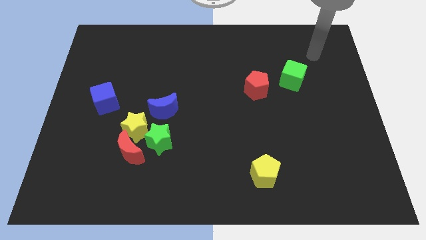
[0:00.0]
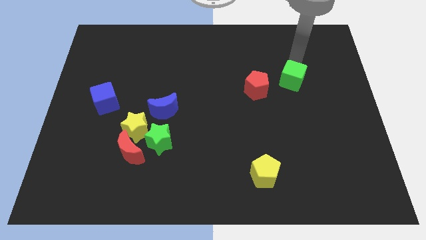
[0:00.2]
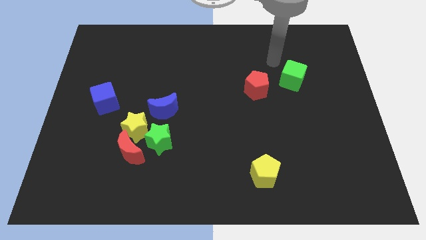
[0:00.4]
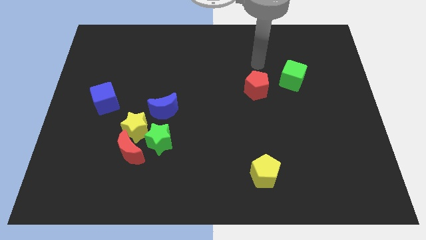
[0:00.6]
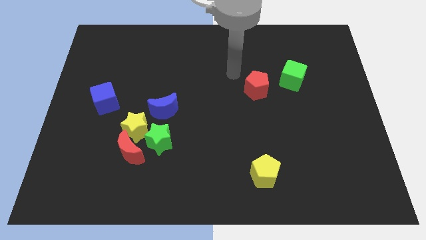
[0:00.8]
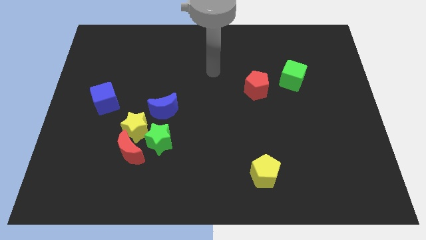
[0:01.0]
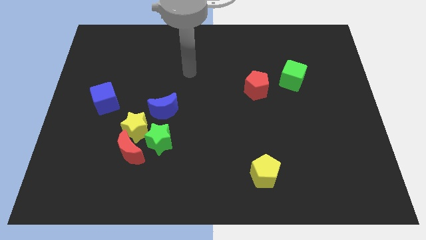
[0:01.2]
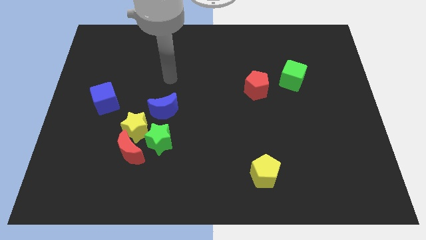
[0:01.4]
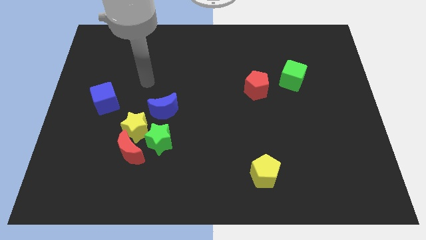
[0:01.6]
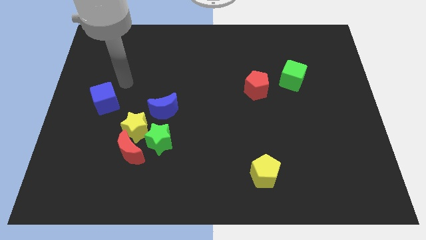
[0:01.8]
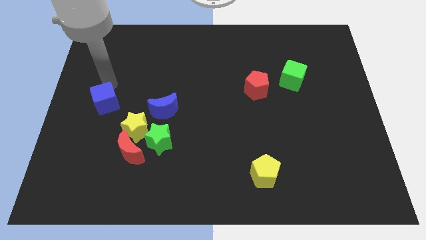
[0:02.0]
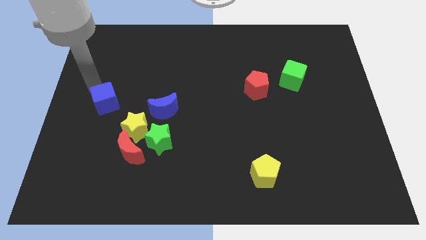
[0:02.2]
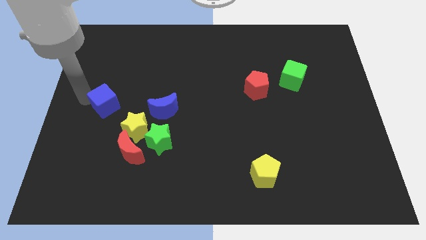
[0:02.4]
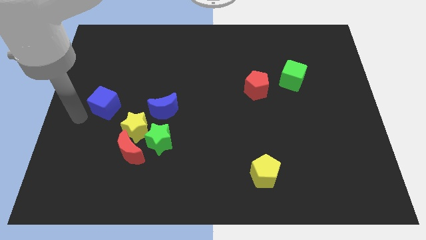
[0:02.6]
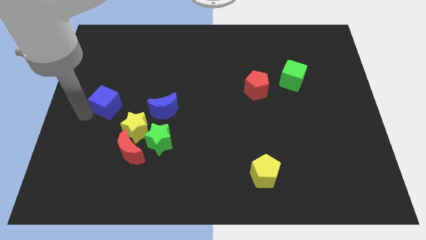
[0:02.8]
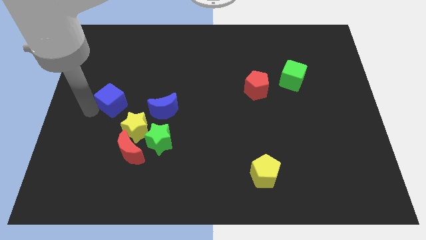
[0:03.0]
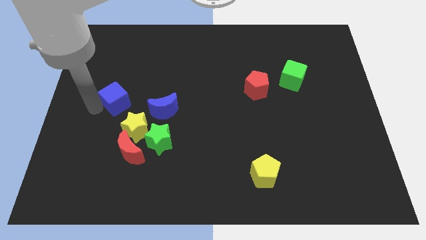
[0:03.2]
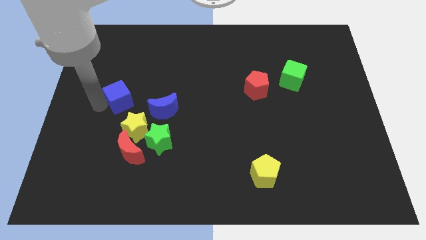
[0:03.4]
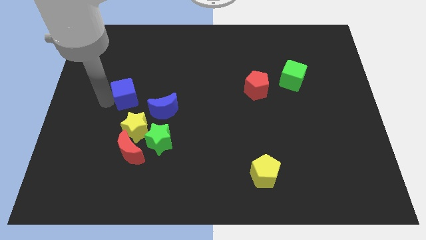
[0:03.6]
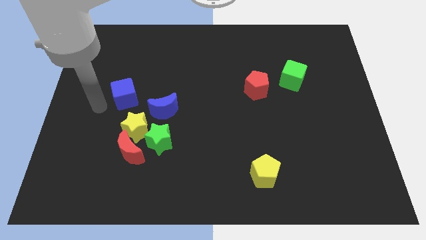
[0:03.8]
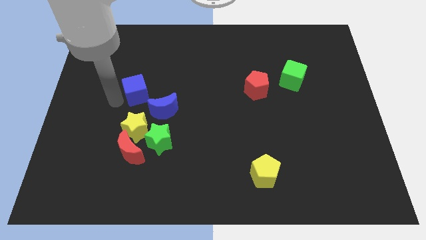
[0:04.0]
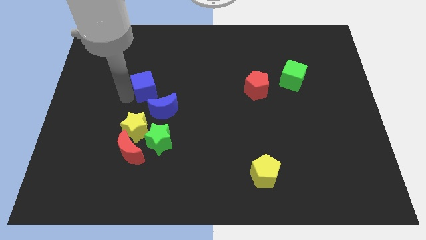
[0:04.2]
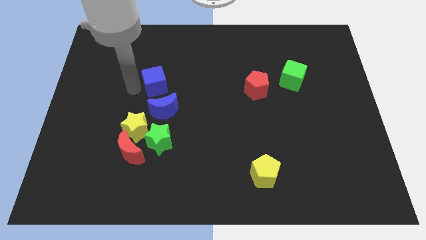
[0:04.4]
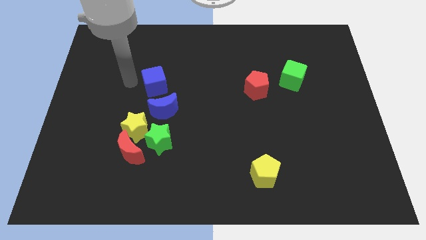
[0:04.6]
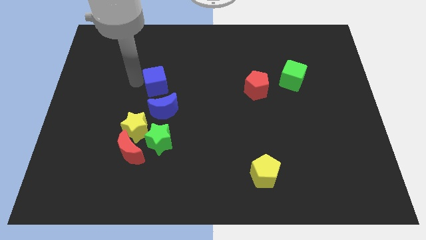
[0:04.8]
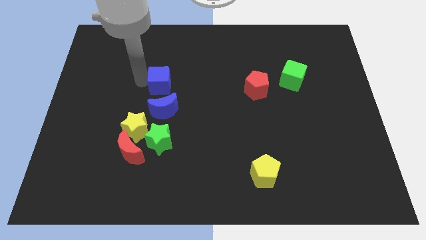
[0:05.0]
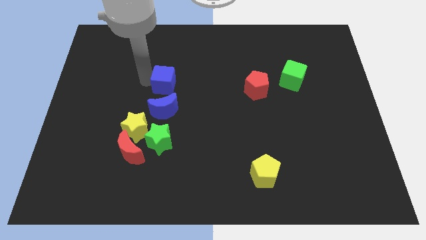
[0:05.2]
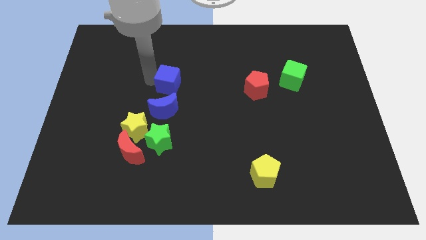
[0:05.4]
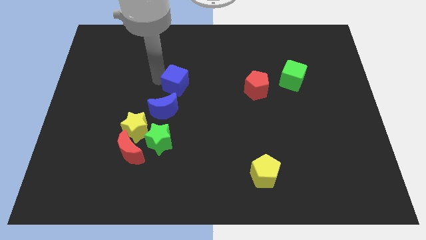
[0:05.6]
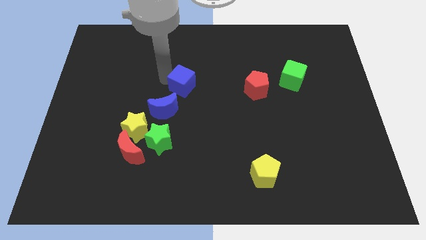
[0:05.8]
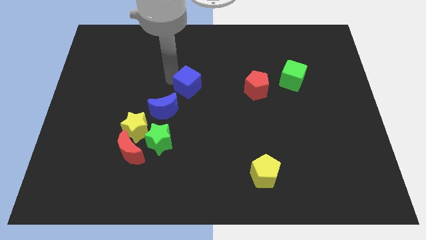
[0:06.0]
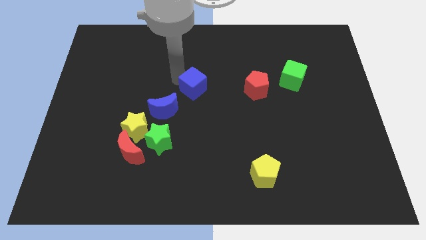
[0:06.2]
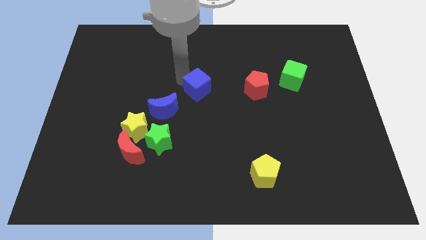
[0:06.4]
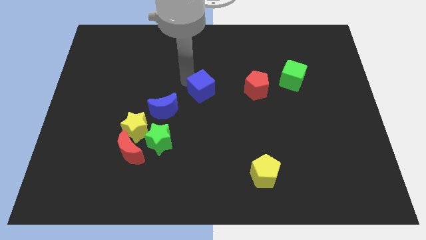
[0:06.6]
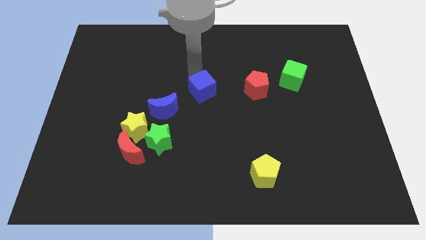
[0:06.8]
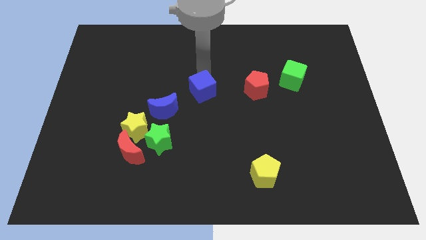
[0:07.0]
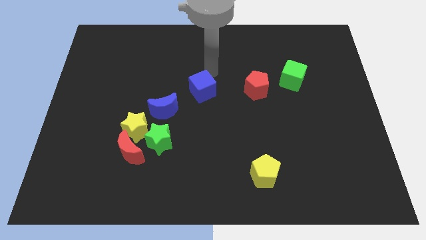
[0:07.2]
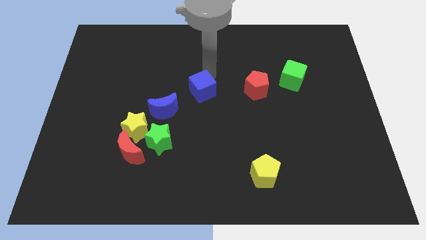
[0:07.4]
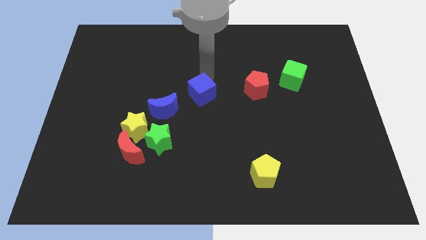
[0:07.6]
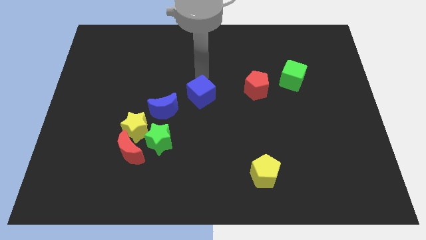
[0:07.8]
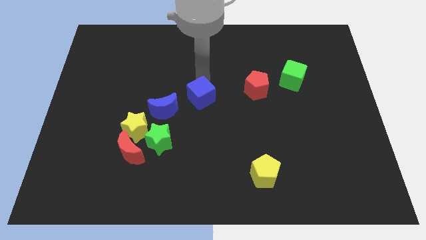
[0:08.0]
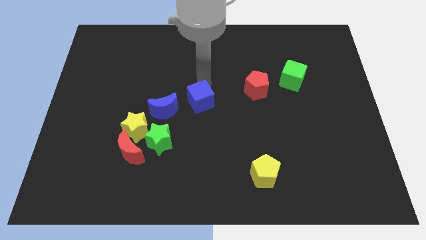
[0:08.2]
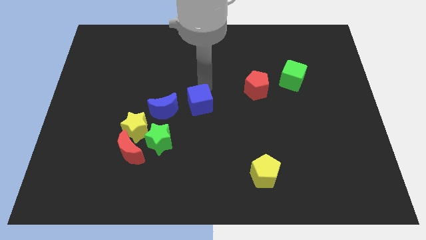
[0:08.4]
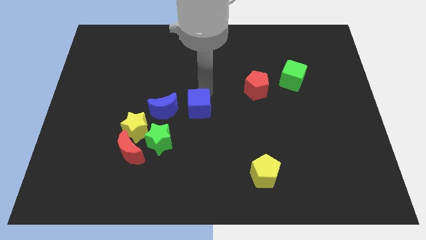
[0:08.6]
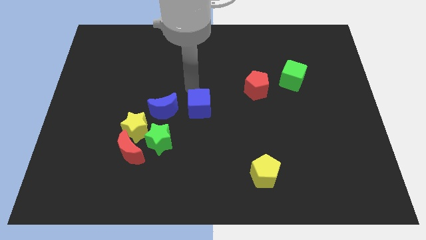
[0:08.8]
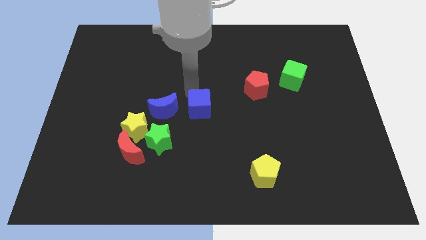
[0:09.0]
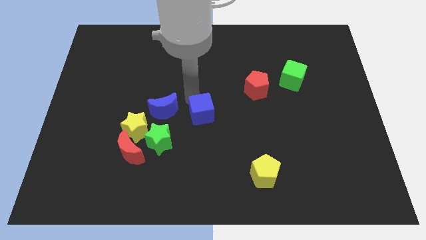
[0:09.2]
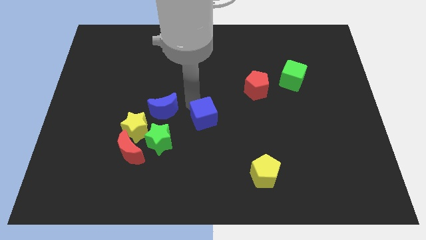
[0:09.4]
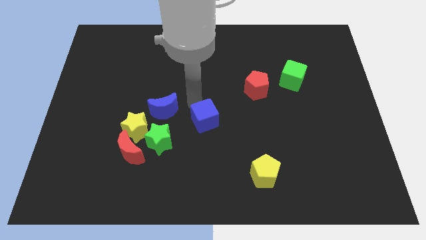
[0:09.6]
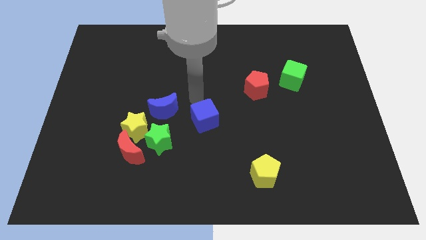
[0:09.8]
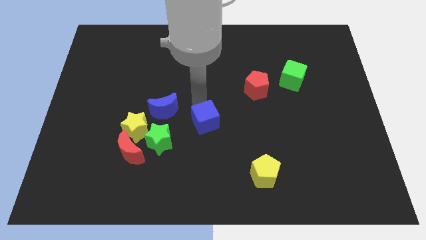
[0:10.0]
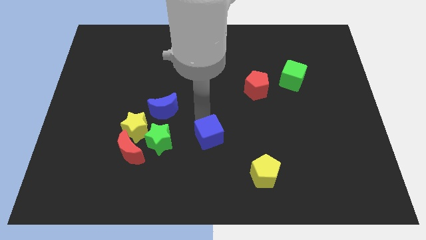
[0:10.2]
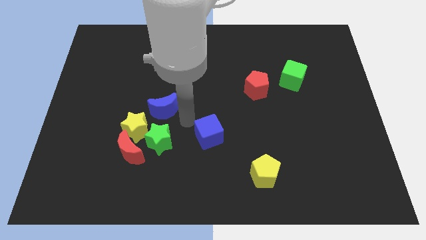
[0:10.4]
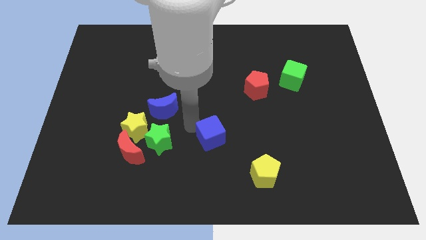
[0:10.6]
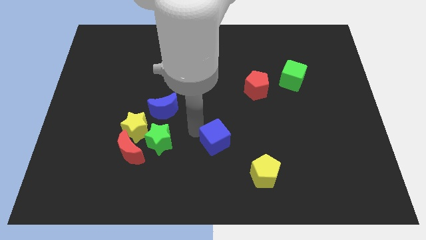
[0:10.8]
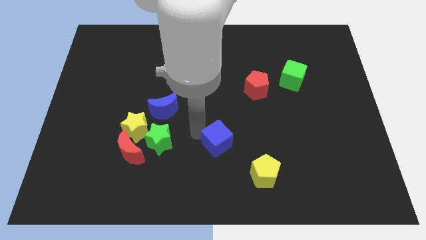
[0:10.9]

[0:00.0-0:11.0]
push the blue cube diagonally up and to the left of the yellow pentagon

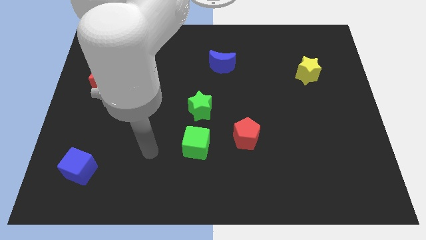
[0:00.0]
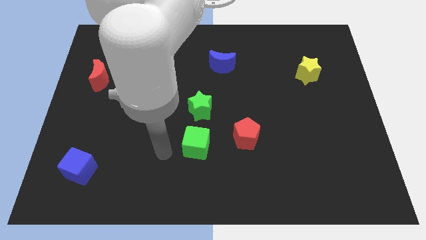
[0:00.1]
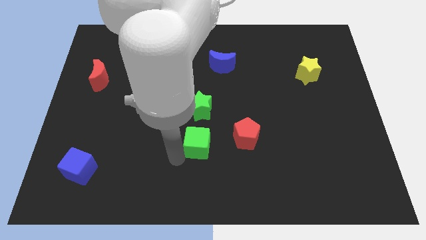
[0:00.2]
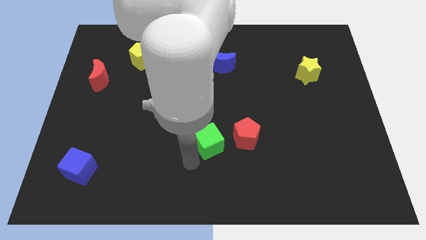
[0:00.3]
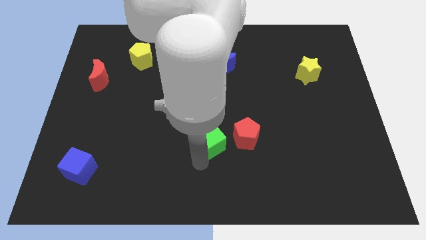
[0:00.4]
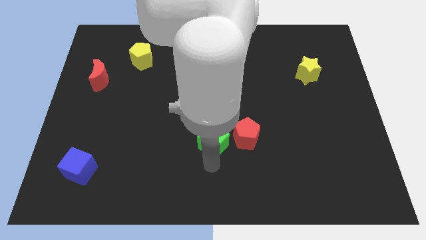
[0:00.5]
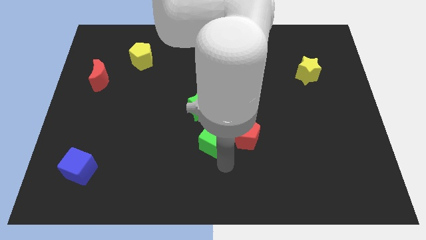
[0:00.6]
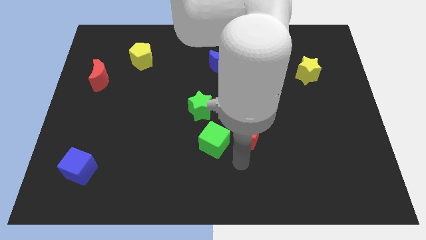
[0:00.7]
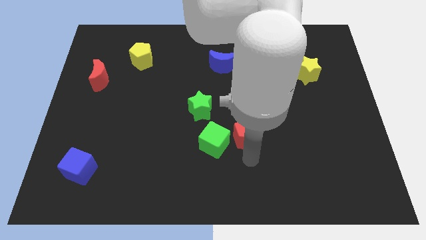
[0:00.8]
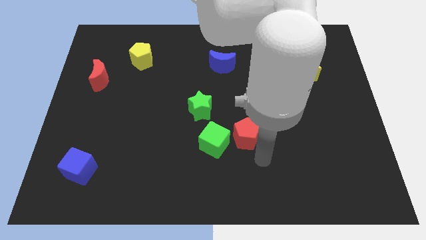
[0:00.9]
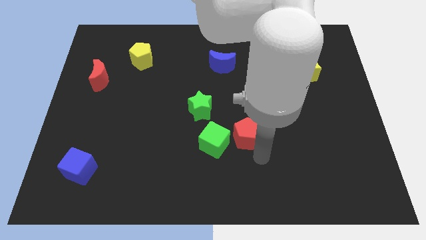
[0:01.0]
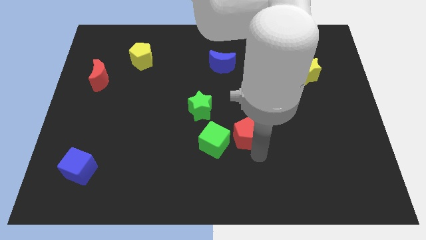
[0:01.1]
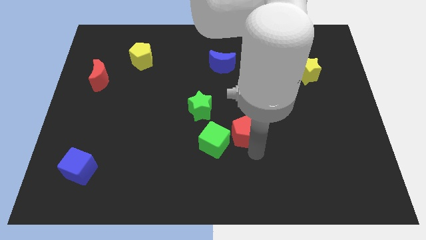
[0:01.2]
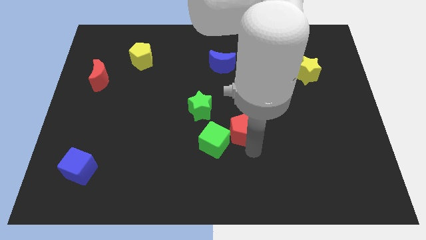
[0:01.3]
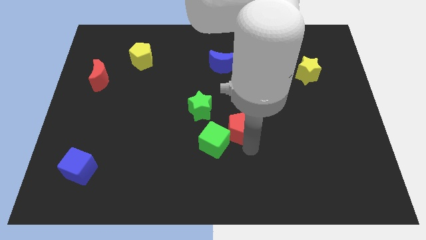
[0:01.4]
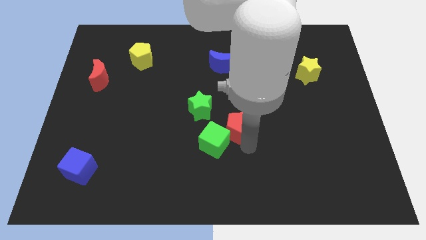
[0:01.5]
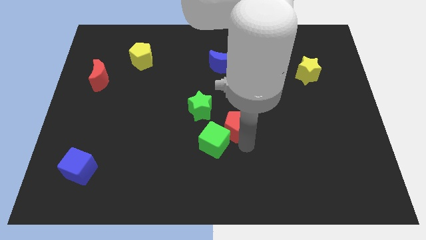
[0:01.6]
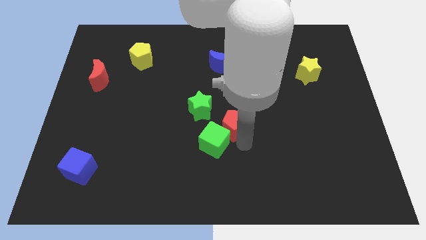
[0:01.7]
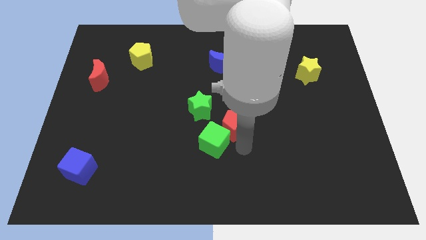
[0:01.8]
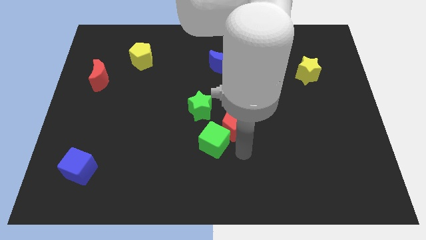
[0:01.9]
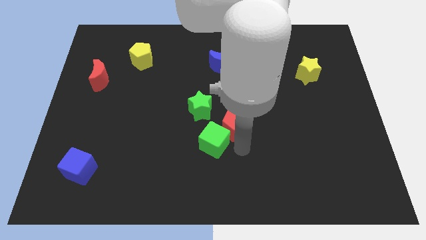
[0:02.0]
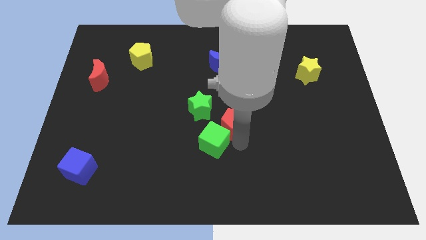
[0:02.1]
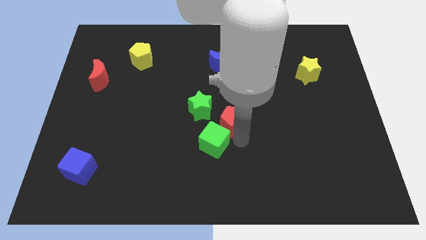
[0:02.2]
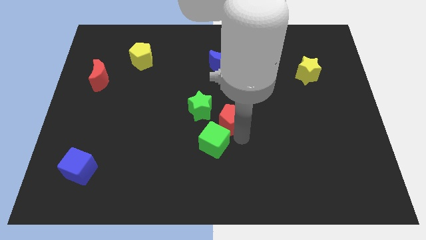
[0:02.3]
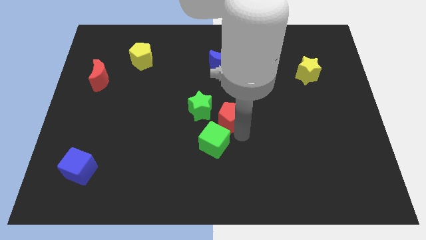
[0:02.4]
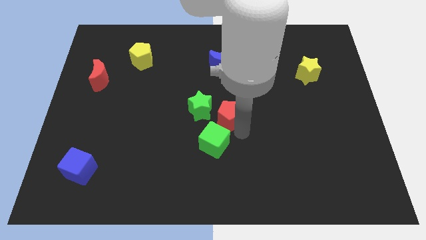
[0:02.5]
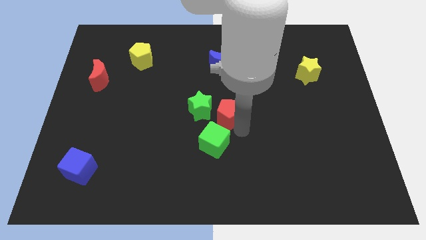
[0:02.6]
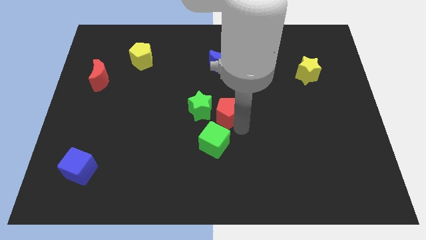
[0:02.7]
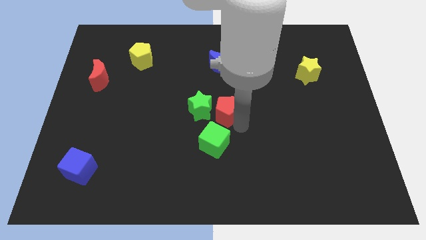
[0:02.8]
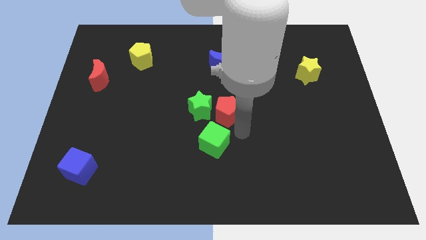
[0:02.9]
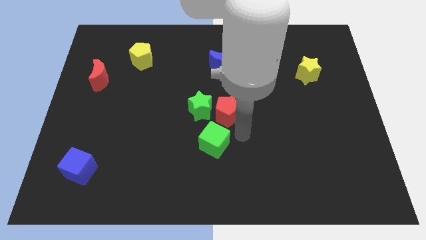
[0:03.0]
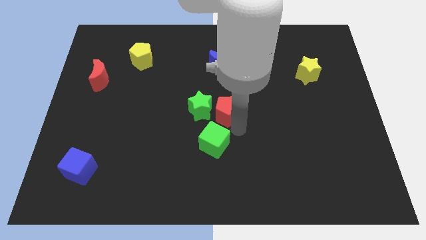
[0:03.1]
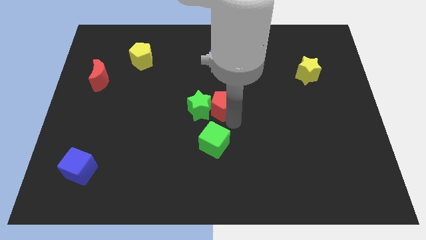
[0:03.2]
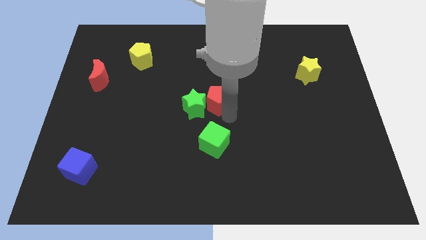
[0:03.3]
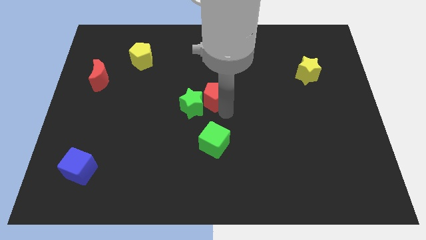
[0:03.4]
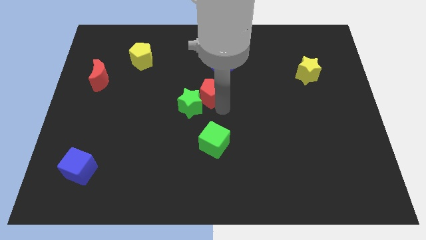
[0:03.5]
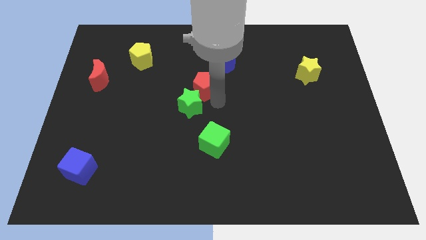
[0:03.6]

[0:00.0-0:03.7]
push the red pentagon above the green star
